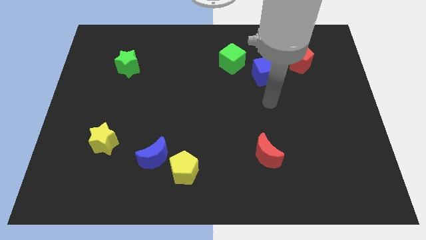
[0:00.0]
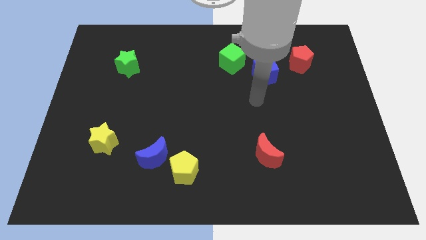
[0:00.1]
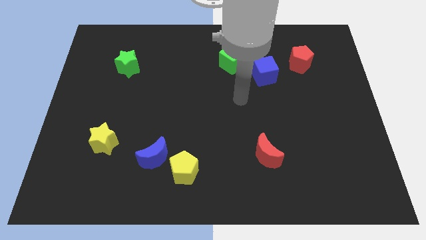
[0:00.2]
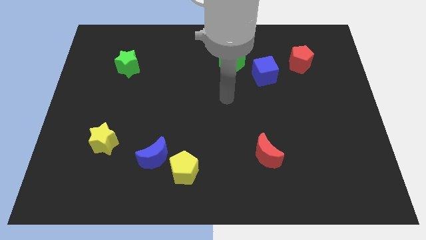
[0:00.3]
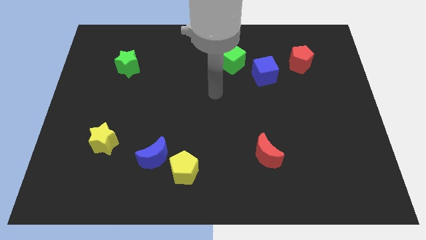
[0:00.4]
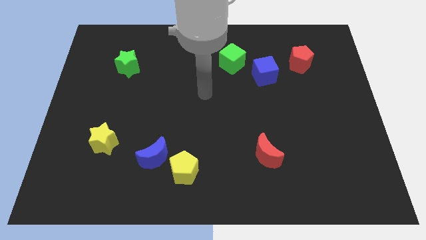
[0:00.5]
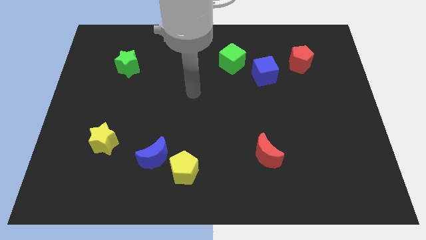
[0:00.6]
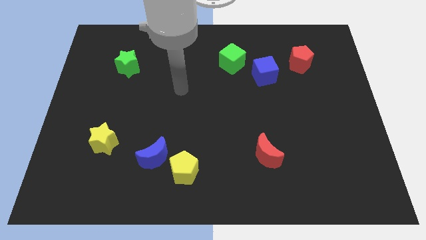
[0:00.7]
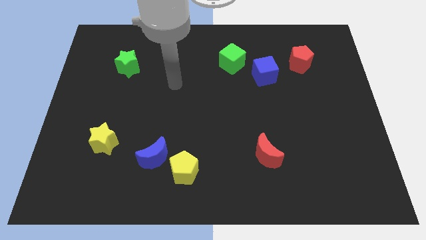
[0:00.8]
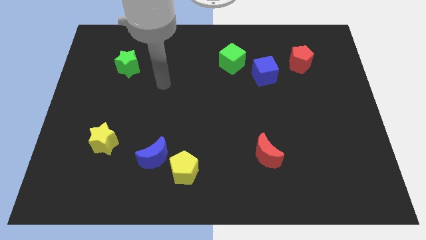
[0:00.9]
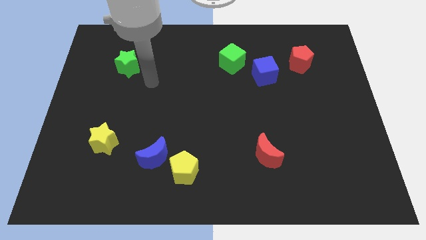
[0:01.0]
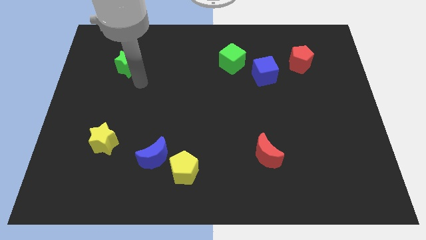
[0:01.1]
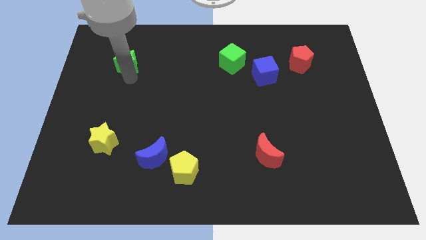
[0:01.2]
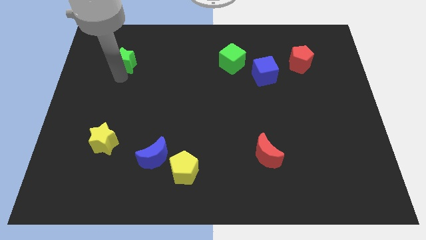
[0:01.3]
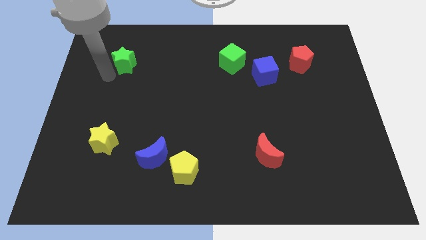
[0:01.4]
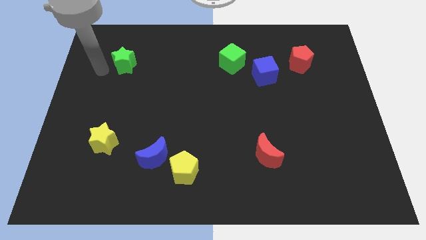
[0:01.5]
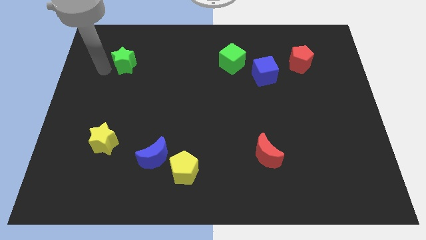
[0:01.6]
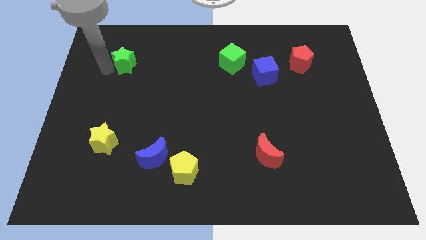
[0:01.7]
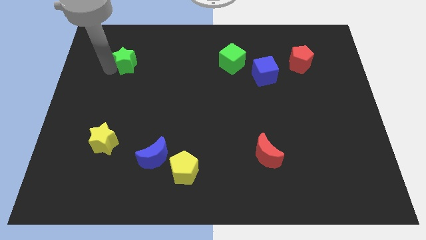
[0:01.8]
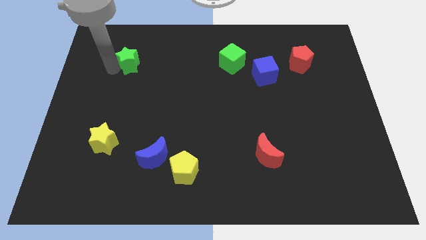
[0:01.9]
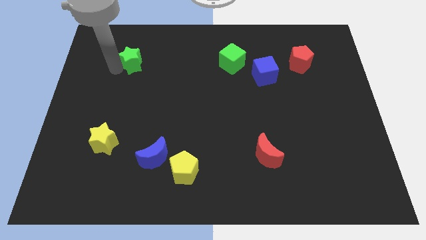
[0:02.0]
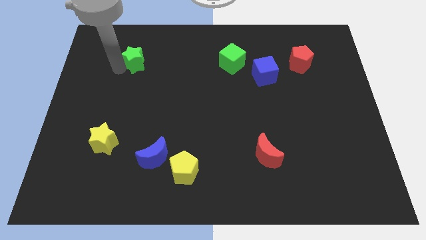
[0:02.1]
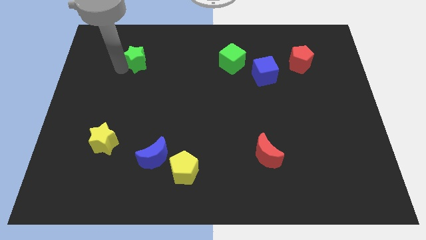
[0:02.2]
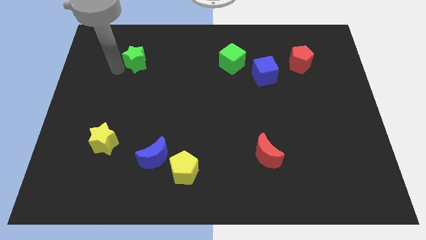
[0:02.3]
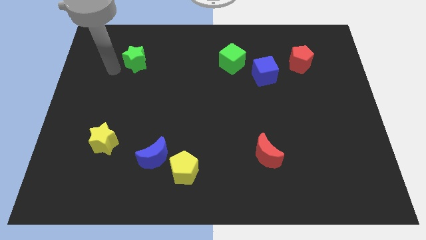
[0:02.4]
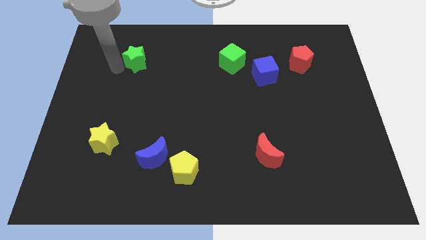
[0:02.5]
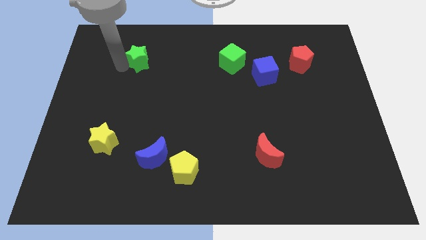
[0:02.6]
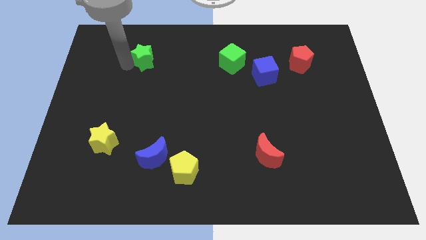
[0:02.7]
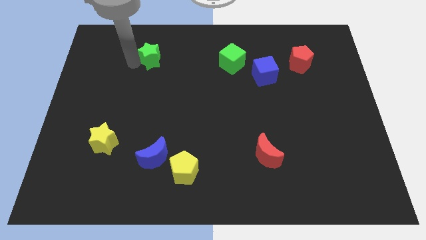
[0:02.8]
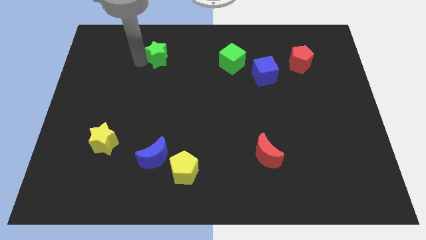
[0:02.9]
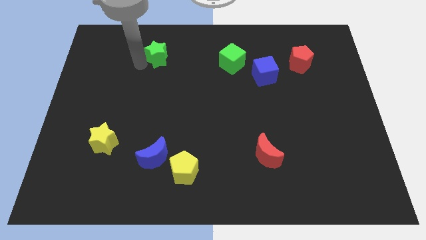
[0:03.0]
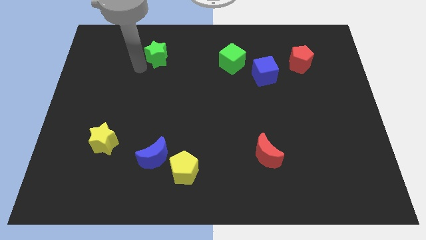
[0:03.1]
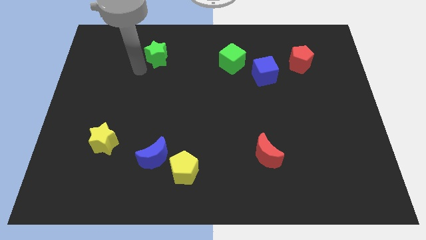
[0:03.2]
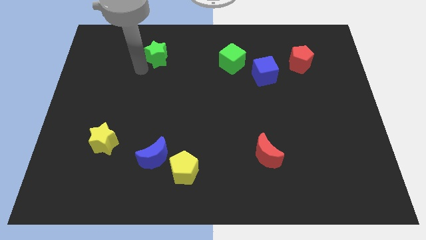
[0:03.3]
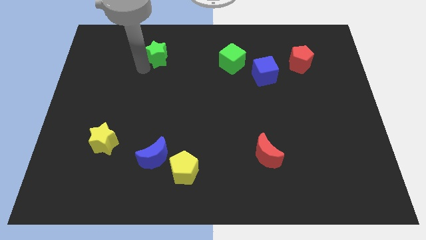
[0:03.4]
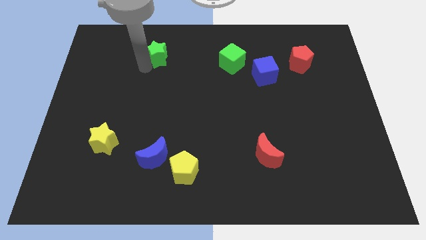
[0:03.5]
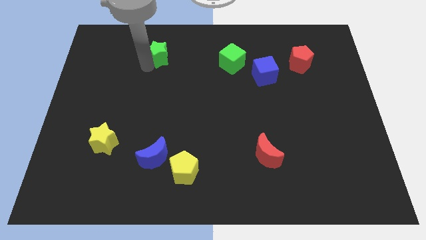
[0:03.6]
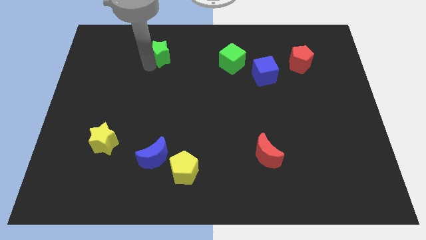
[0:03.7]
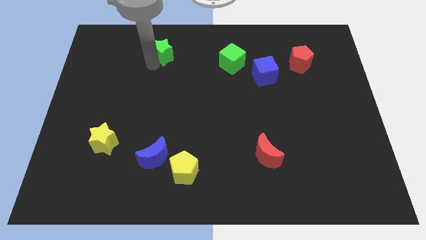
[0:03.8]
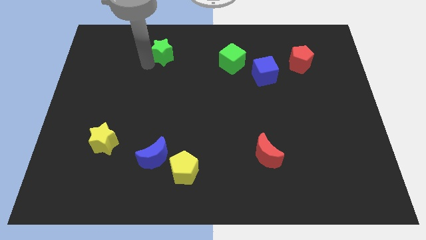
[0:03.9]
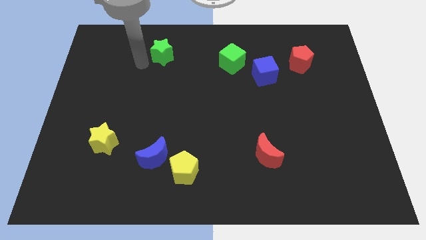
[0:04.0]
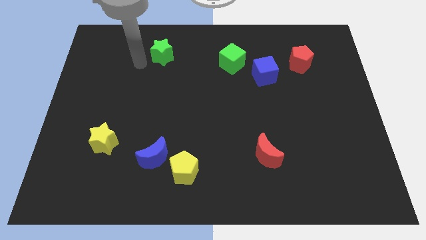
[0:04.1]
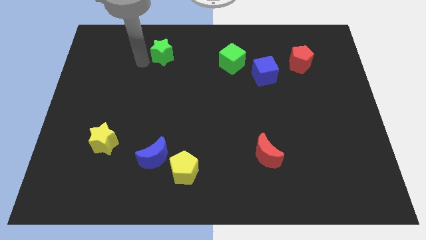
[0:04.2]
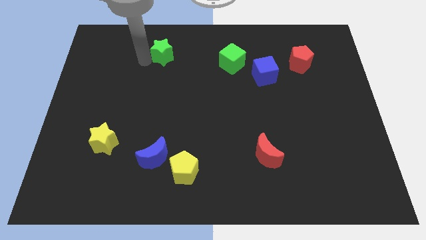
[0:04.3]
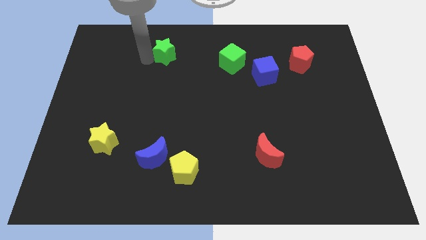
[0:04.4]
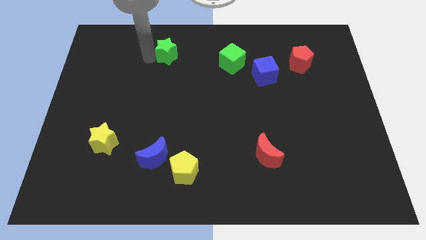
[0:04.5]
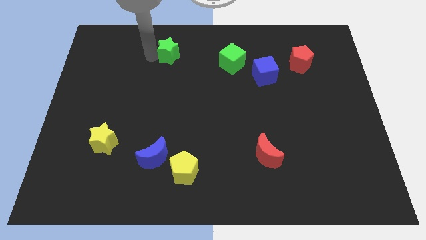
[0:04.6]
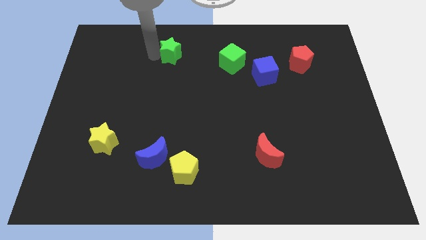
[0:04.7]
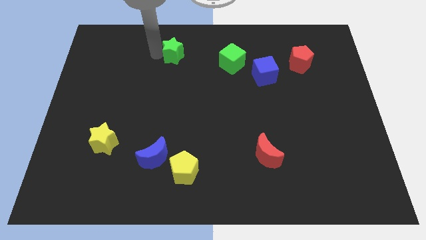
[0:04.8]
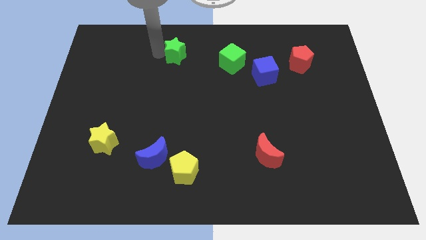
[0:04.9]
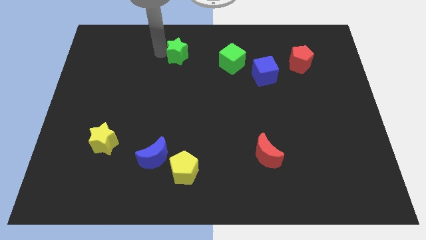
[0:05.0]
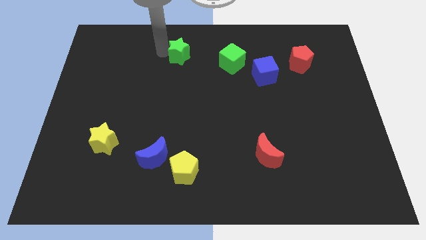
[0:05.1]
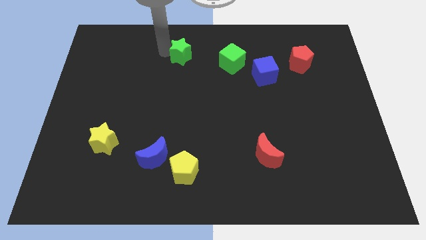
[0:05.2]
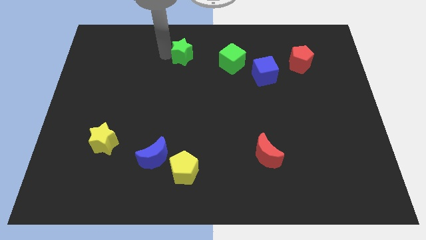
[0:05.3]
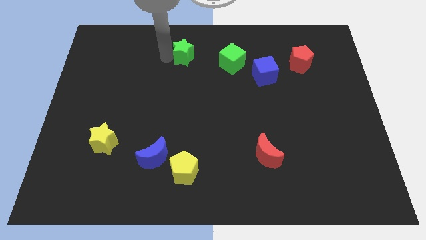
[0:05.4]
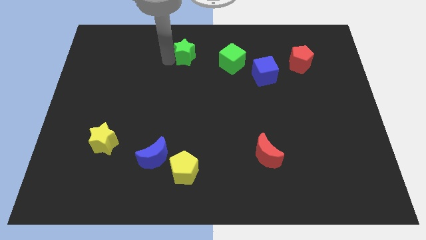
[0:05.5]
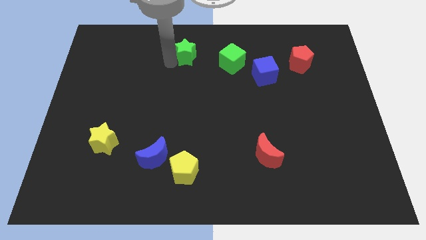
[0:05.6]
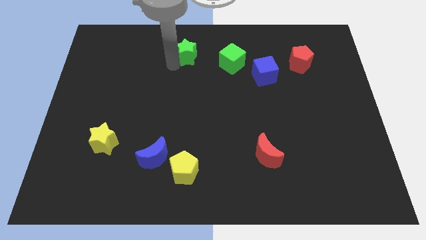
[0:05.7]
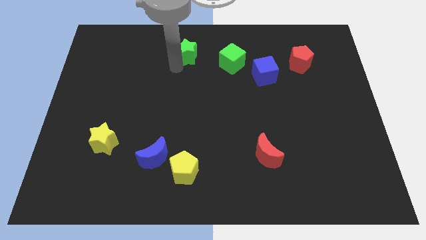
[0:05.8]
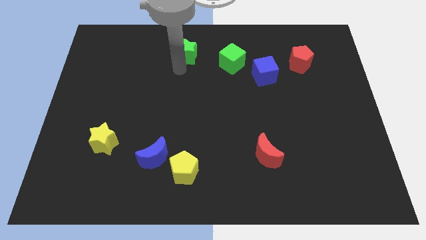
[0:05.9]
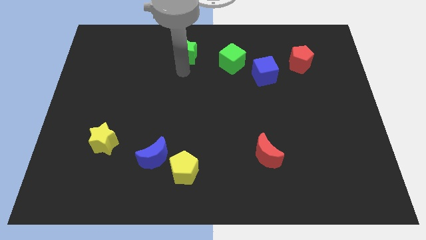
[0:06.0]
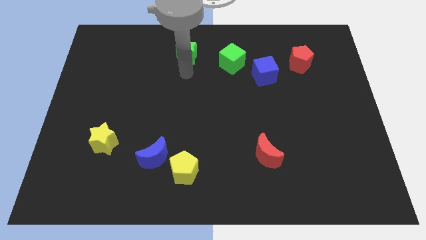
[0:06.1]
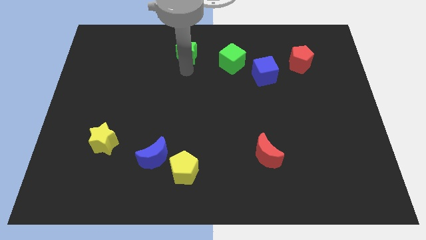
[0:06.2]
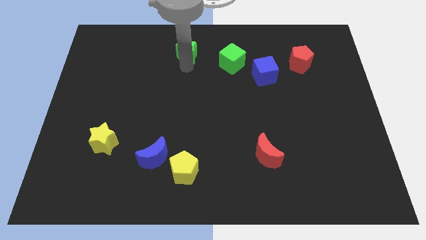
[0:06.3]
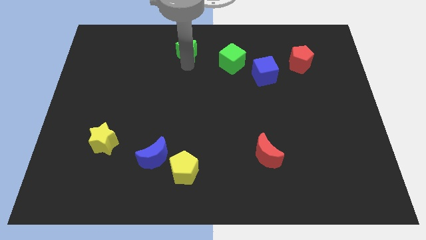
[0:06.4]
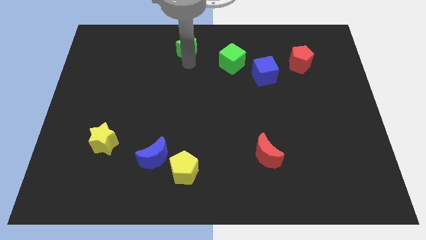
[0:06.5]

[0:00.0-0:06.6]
push the green star to the towards your base
